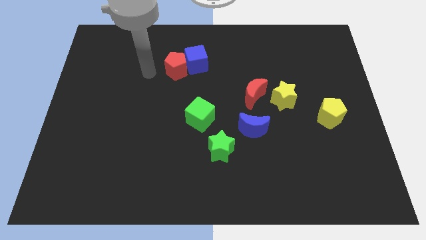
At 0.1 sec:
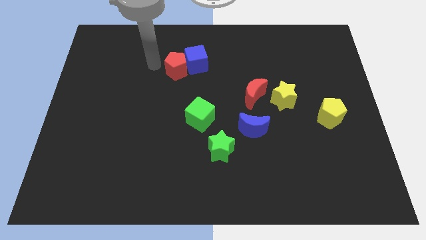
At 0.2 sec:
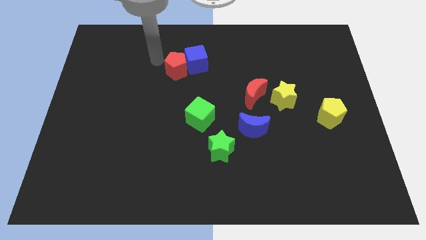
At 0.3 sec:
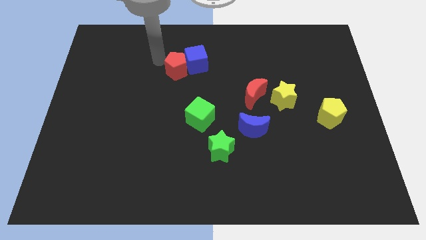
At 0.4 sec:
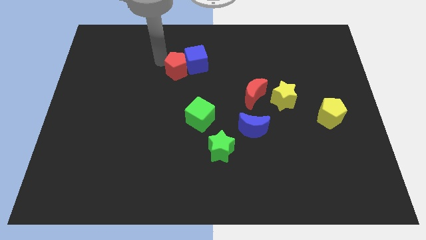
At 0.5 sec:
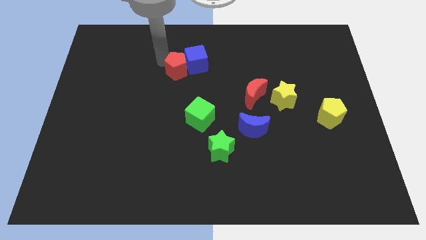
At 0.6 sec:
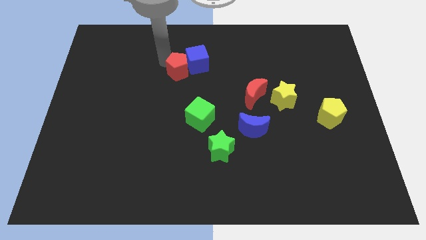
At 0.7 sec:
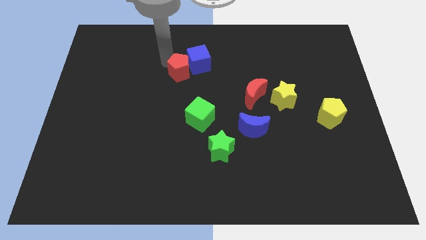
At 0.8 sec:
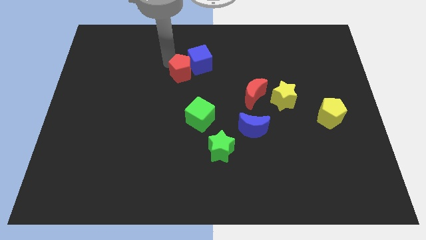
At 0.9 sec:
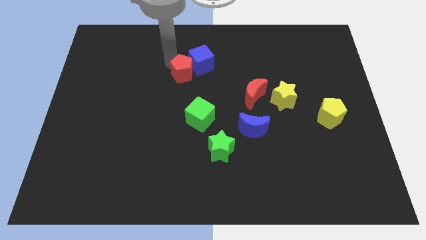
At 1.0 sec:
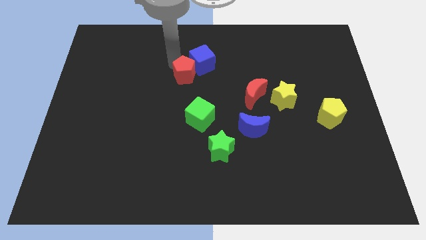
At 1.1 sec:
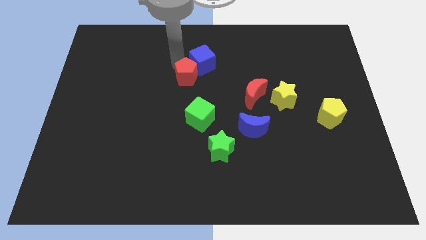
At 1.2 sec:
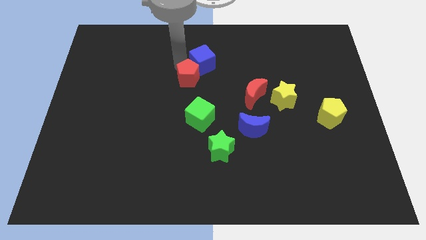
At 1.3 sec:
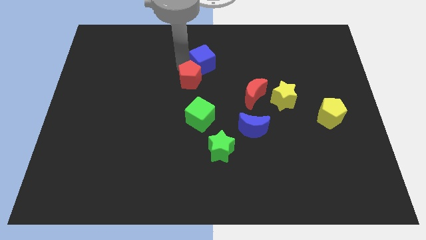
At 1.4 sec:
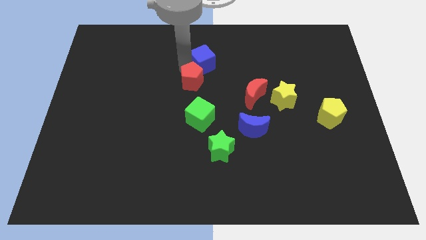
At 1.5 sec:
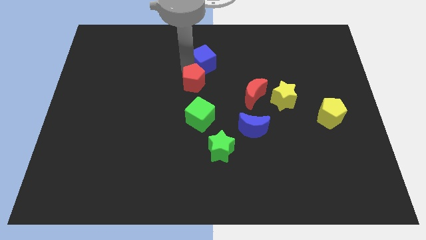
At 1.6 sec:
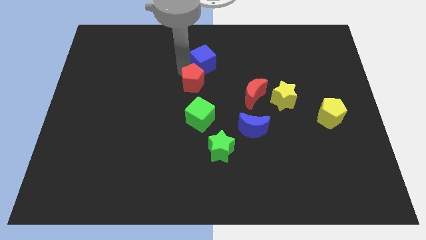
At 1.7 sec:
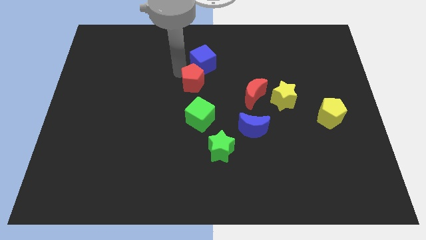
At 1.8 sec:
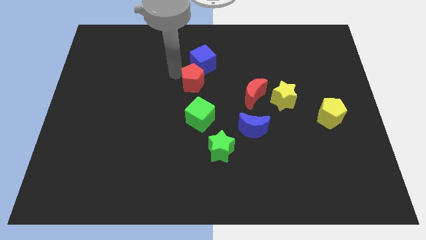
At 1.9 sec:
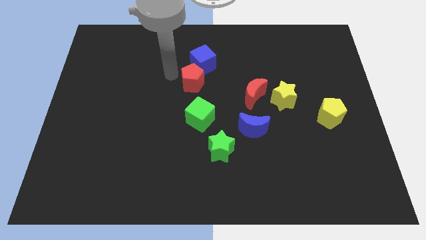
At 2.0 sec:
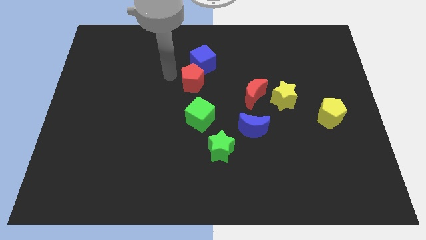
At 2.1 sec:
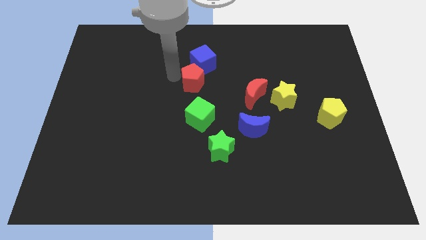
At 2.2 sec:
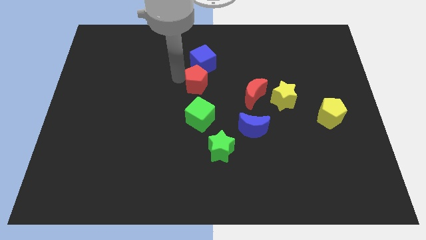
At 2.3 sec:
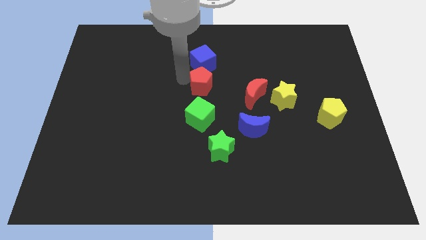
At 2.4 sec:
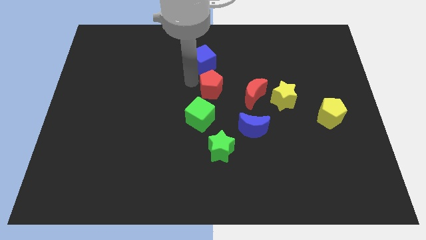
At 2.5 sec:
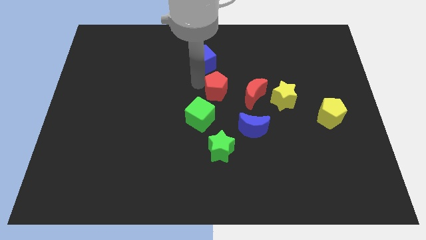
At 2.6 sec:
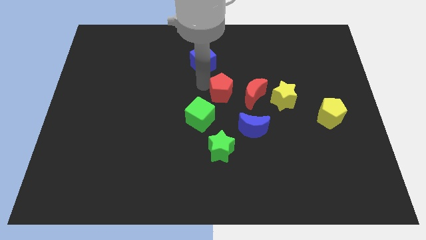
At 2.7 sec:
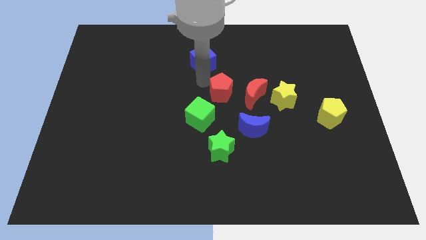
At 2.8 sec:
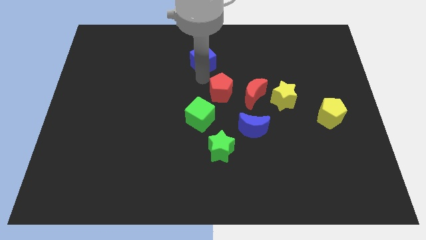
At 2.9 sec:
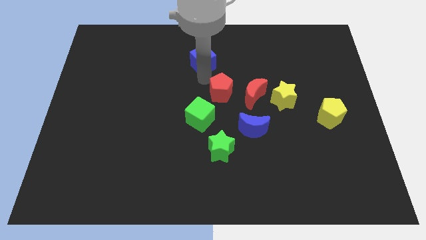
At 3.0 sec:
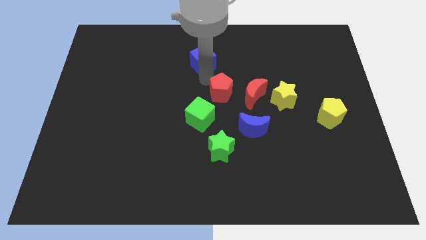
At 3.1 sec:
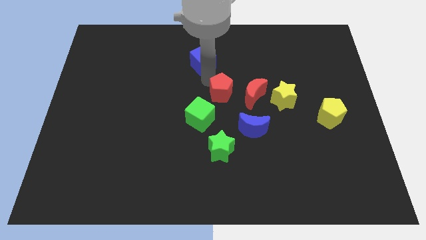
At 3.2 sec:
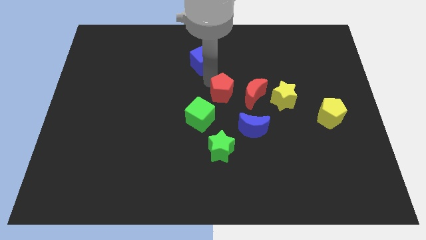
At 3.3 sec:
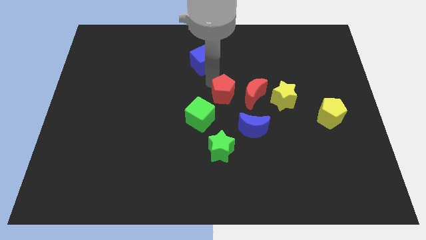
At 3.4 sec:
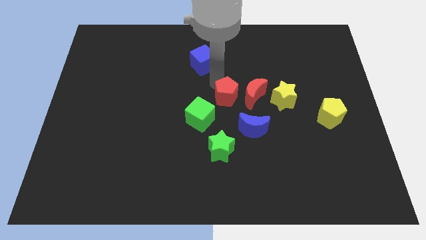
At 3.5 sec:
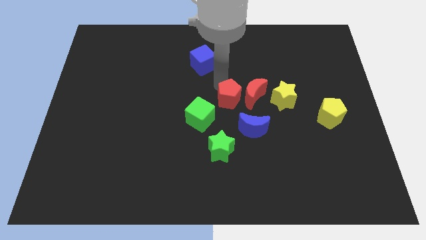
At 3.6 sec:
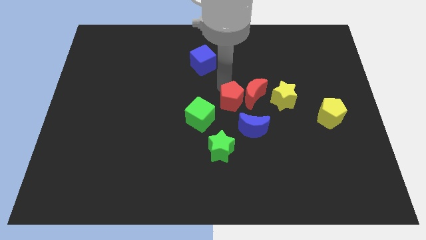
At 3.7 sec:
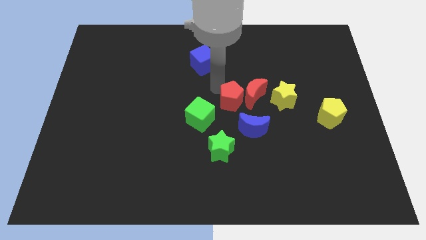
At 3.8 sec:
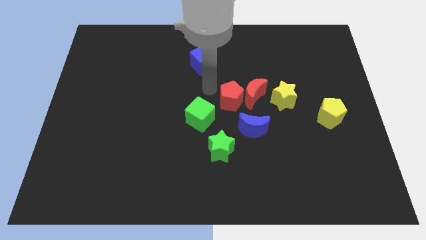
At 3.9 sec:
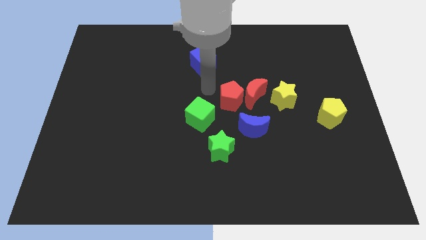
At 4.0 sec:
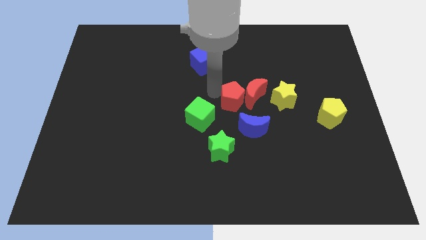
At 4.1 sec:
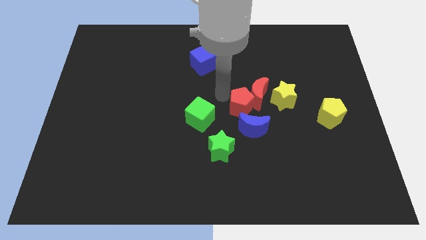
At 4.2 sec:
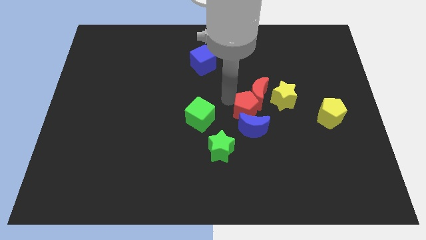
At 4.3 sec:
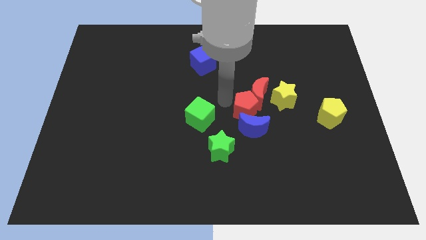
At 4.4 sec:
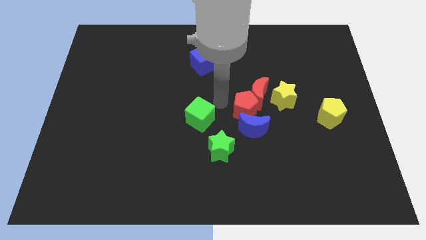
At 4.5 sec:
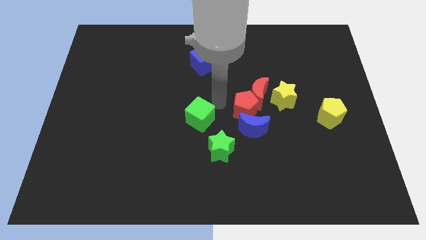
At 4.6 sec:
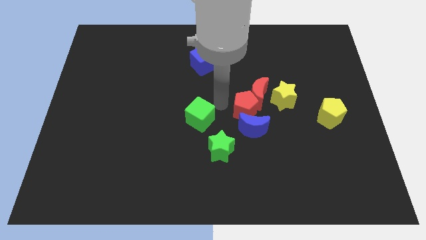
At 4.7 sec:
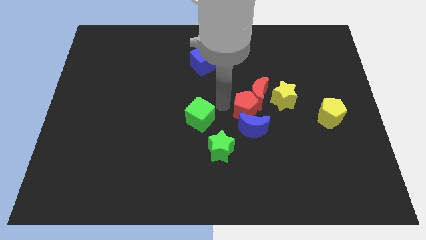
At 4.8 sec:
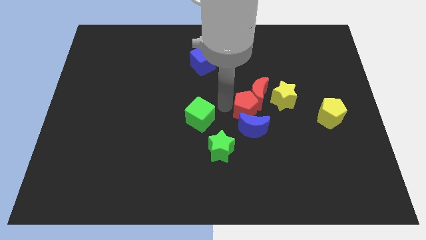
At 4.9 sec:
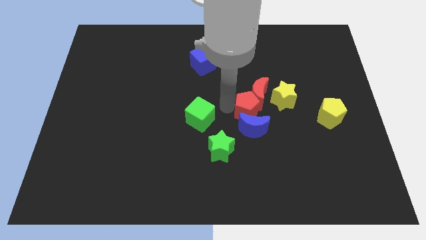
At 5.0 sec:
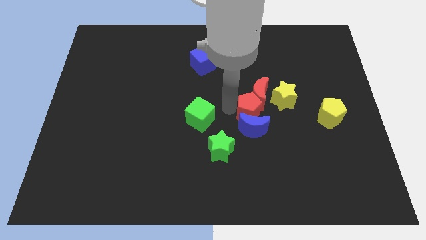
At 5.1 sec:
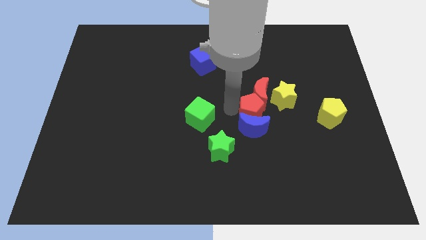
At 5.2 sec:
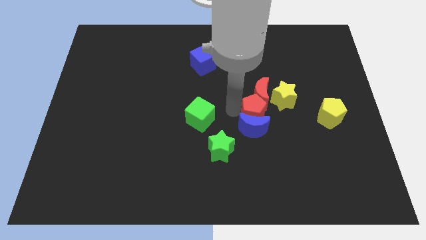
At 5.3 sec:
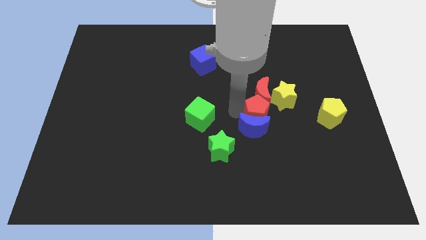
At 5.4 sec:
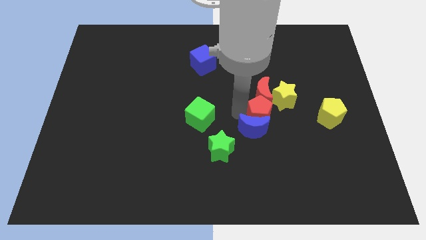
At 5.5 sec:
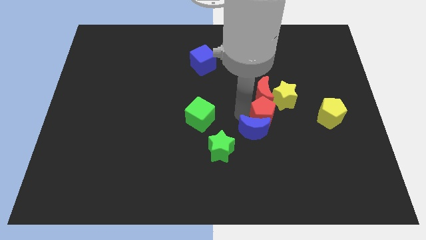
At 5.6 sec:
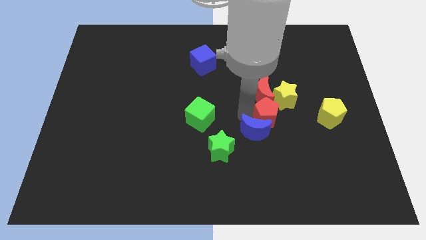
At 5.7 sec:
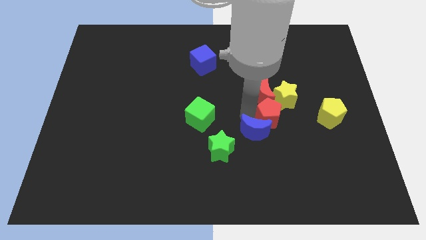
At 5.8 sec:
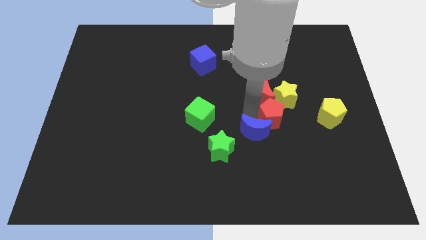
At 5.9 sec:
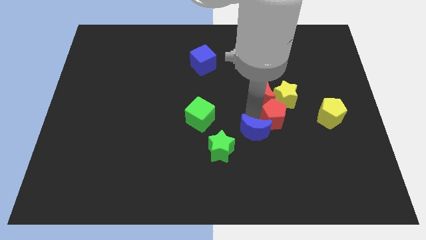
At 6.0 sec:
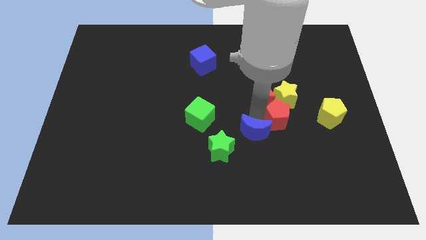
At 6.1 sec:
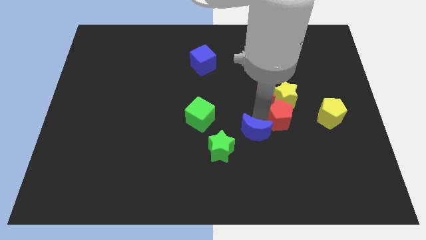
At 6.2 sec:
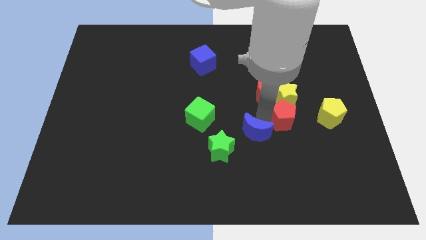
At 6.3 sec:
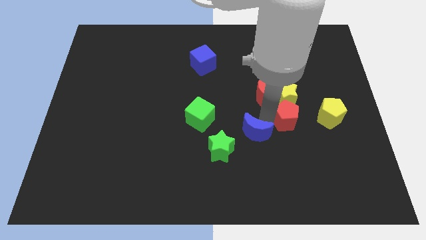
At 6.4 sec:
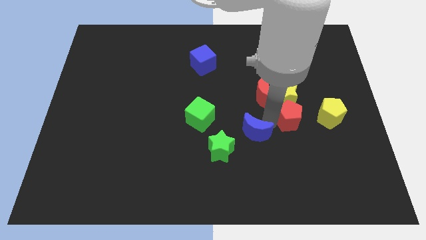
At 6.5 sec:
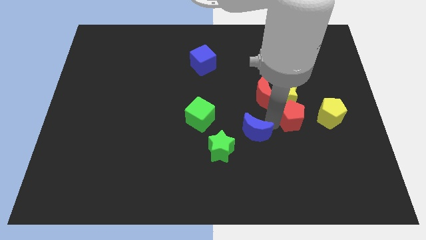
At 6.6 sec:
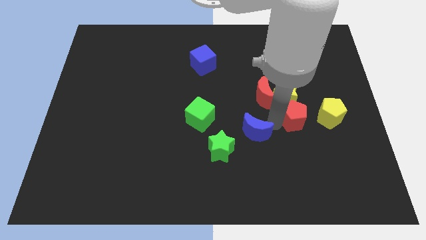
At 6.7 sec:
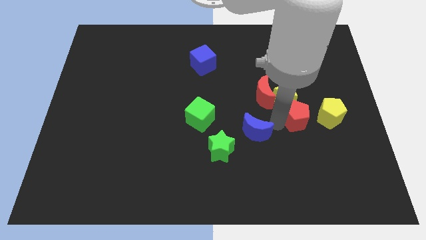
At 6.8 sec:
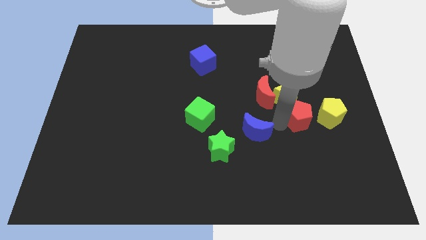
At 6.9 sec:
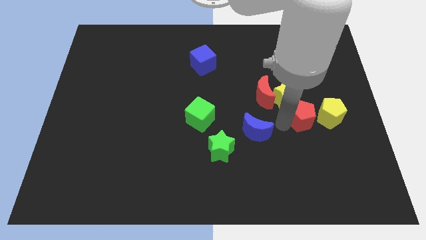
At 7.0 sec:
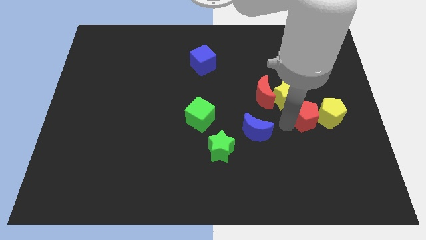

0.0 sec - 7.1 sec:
slide the red pentagon towards the yellow pentagon

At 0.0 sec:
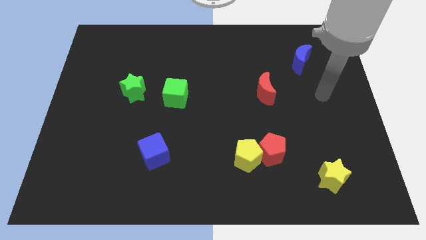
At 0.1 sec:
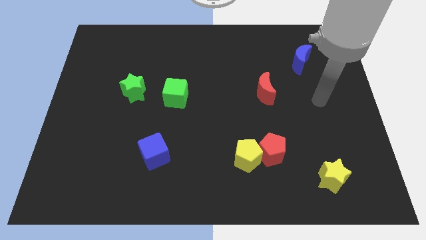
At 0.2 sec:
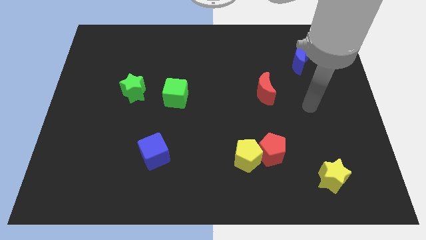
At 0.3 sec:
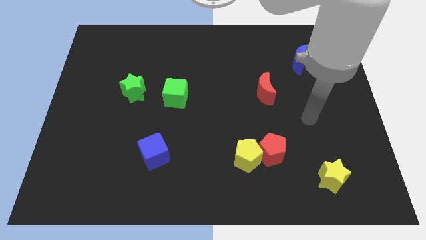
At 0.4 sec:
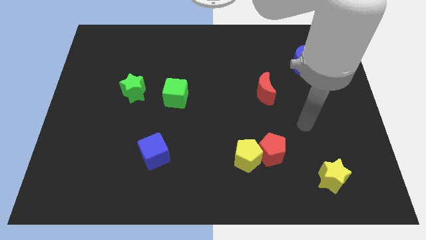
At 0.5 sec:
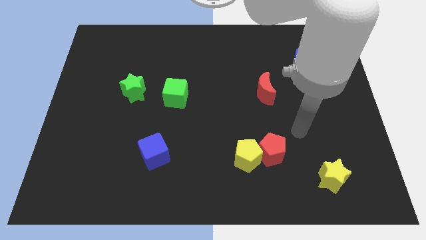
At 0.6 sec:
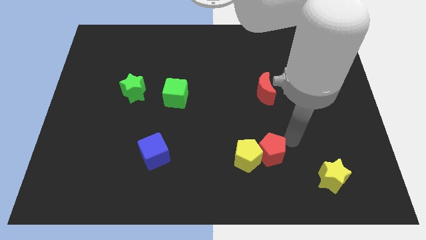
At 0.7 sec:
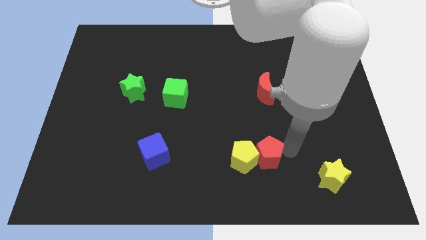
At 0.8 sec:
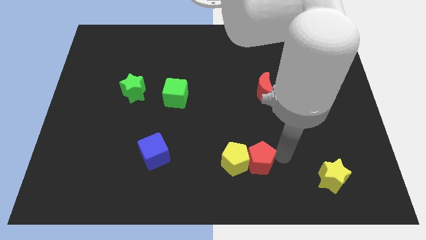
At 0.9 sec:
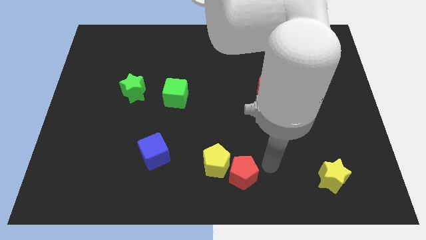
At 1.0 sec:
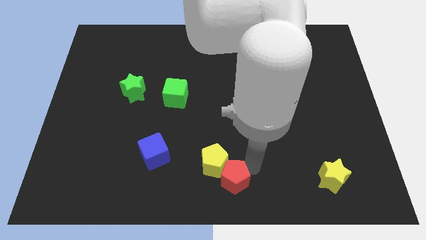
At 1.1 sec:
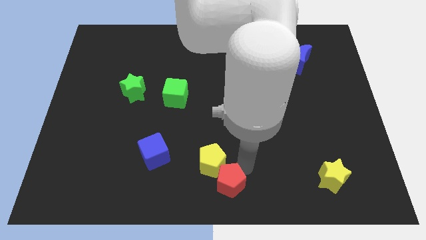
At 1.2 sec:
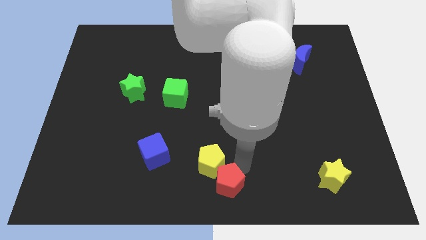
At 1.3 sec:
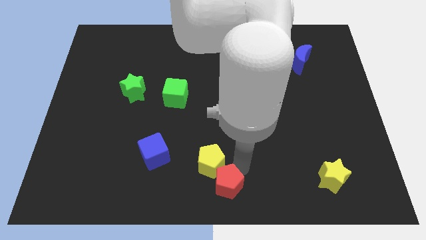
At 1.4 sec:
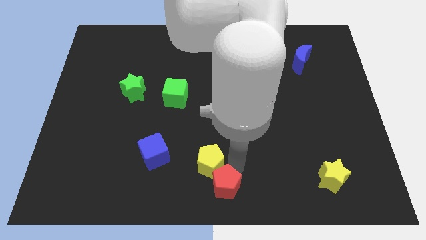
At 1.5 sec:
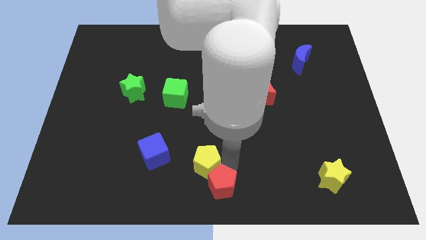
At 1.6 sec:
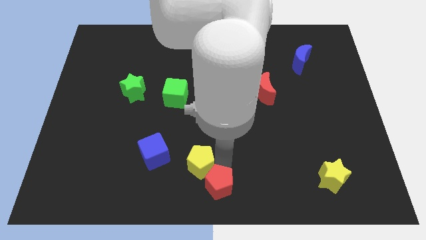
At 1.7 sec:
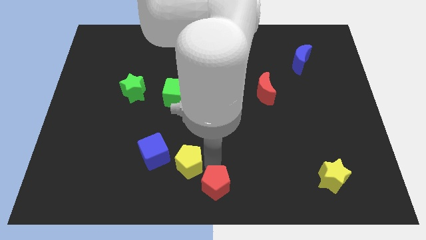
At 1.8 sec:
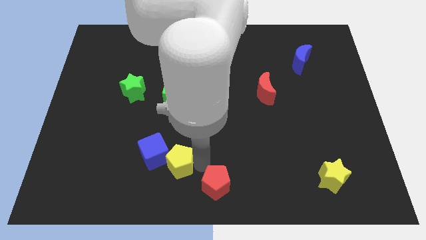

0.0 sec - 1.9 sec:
slide the yellow pentagon next to the blue cube
